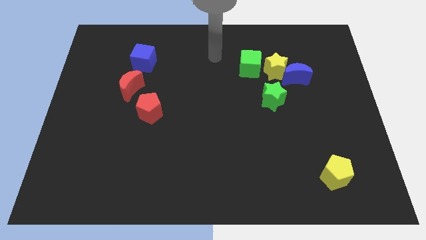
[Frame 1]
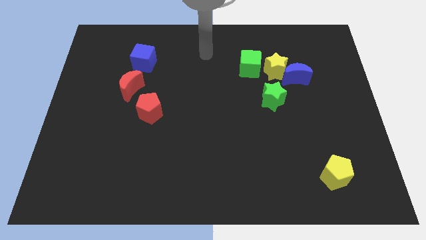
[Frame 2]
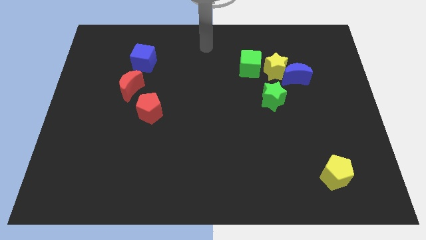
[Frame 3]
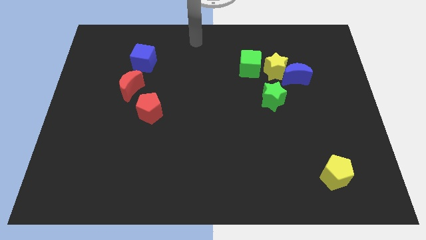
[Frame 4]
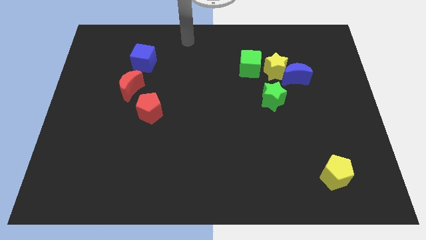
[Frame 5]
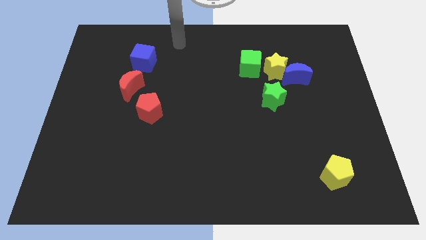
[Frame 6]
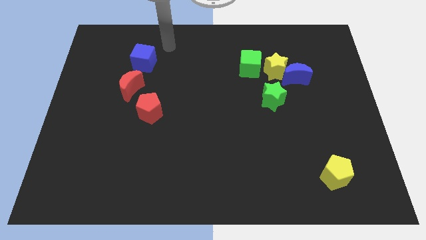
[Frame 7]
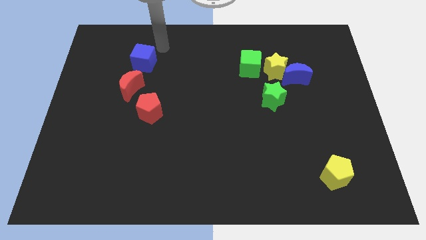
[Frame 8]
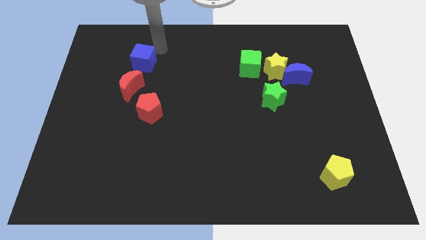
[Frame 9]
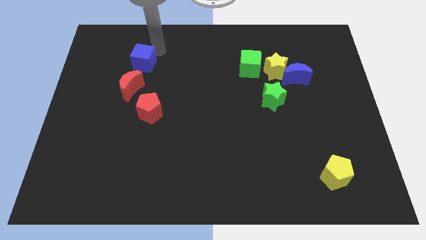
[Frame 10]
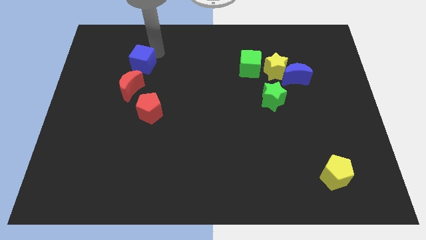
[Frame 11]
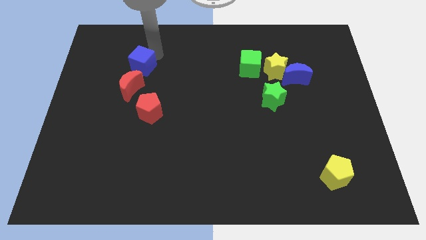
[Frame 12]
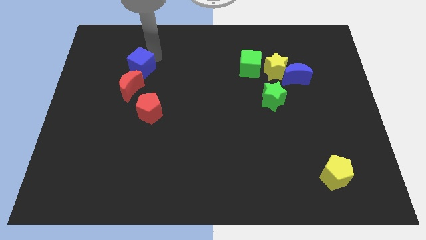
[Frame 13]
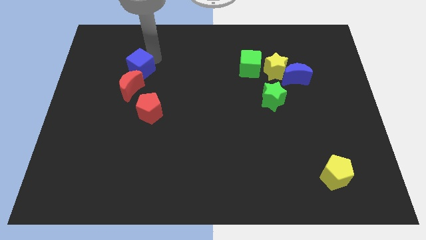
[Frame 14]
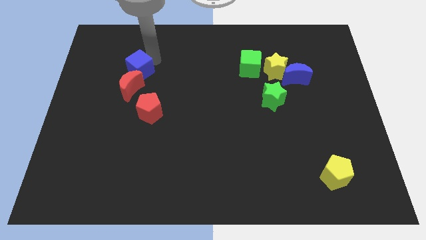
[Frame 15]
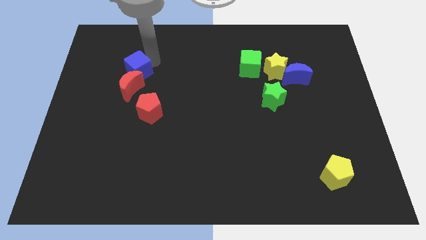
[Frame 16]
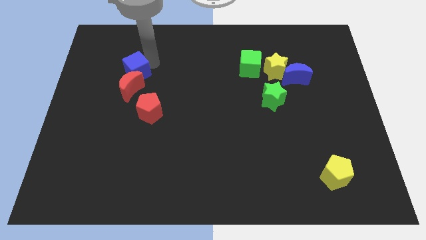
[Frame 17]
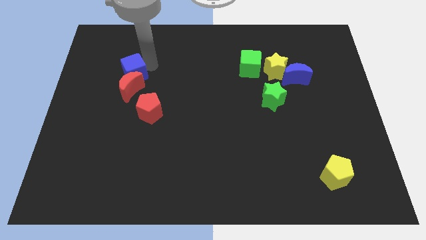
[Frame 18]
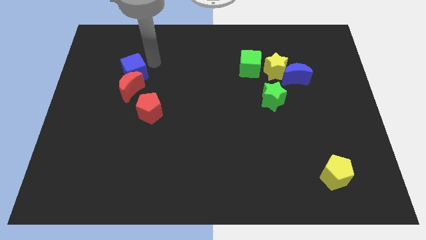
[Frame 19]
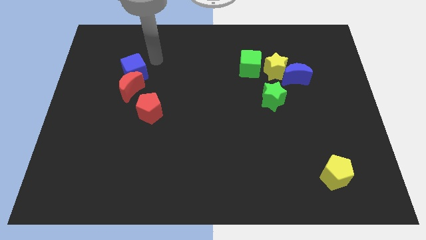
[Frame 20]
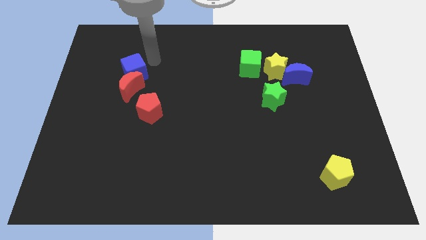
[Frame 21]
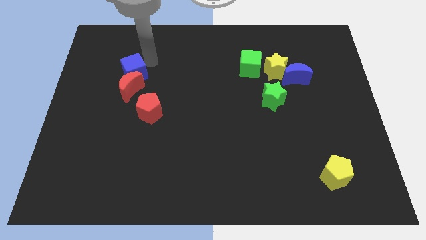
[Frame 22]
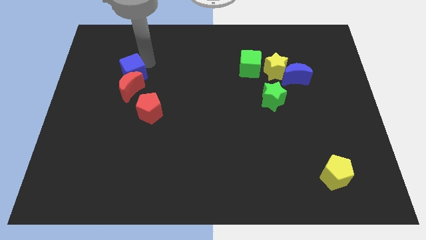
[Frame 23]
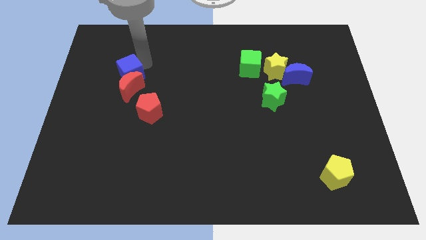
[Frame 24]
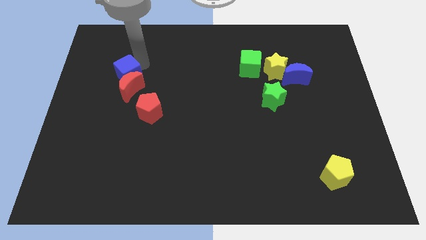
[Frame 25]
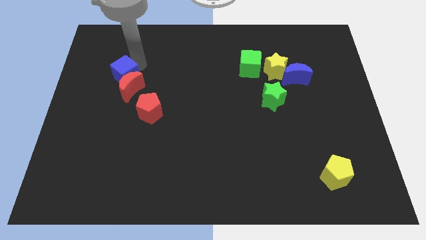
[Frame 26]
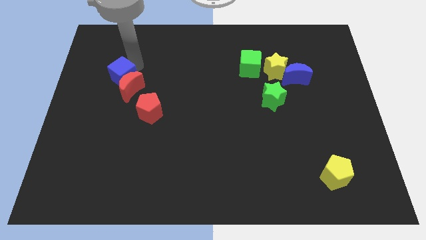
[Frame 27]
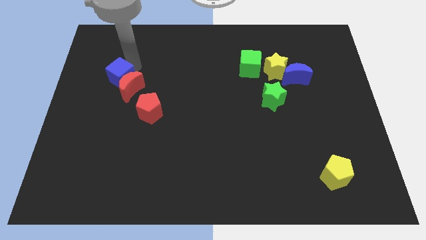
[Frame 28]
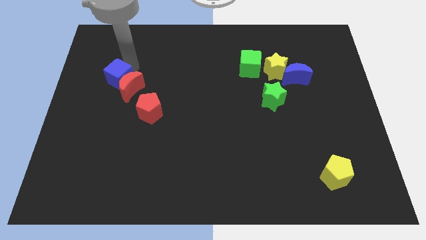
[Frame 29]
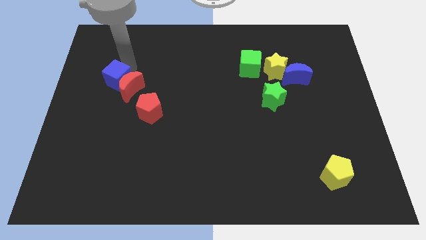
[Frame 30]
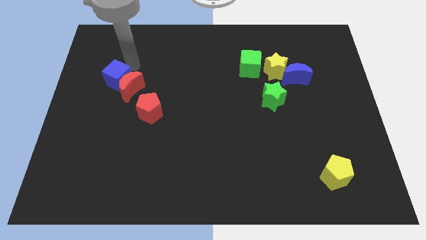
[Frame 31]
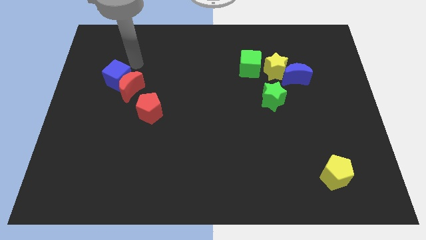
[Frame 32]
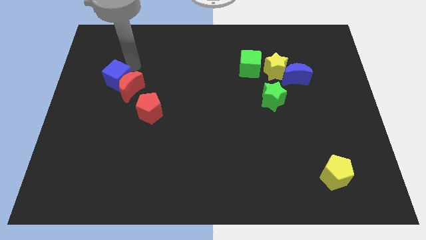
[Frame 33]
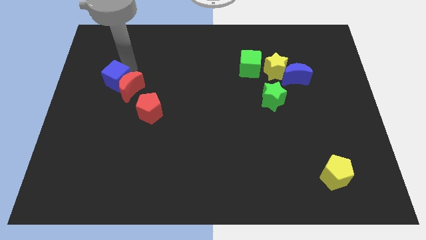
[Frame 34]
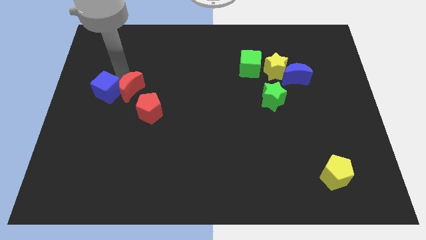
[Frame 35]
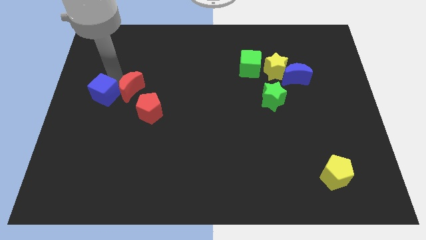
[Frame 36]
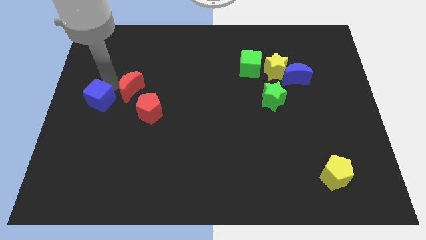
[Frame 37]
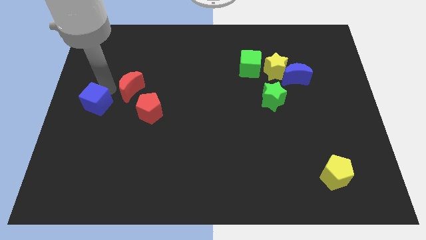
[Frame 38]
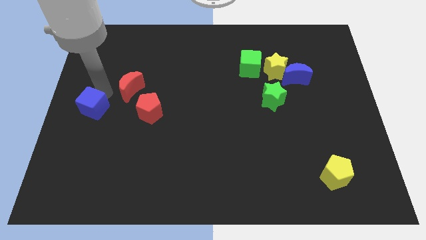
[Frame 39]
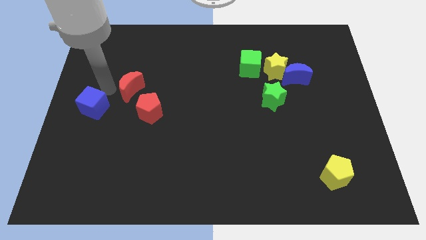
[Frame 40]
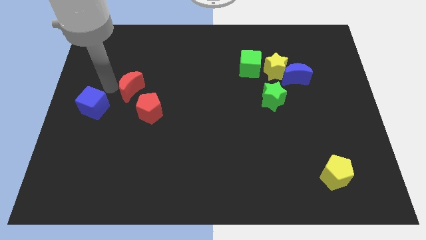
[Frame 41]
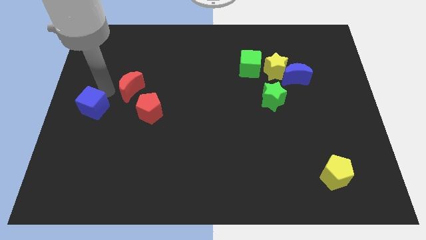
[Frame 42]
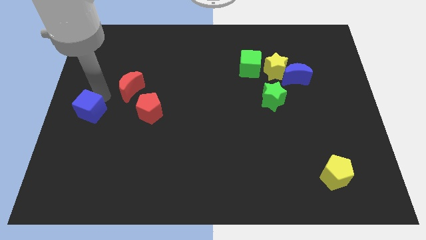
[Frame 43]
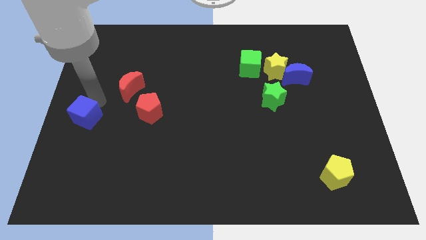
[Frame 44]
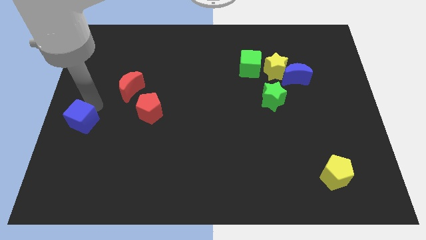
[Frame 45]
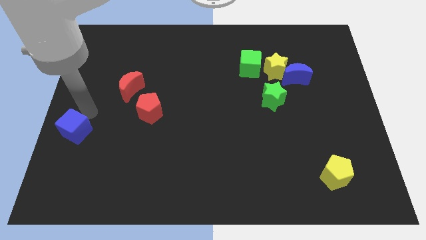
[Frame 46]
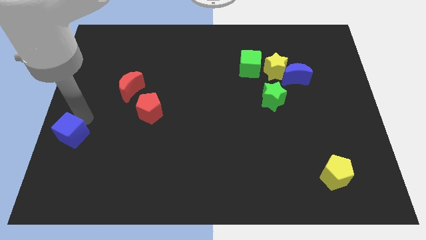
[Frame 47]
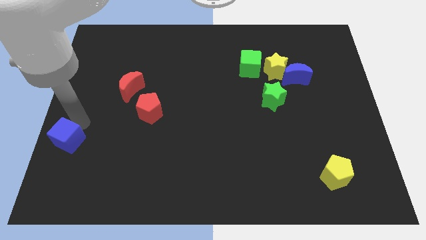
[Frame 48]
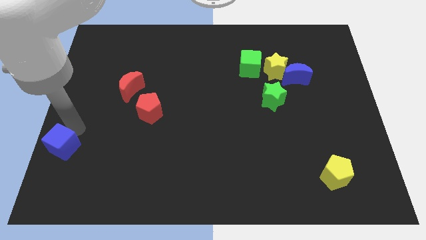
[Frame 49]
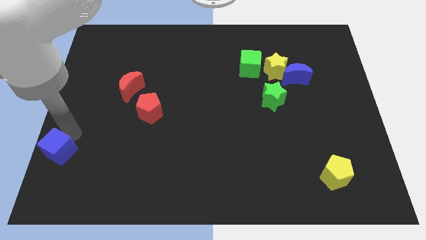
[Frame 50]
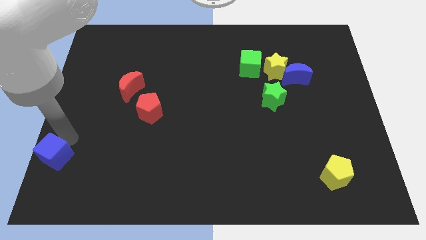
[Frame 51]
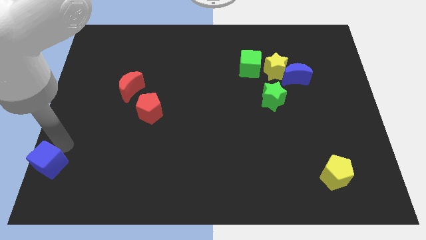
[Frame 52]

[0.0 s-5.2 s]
move the blue cube to the bottom left

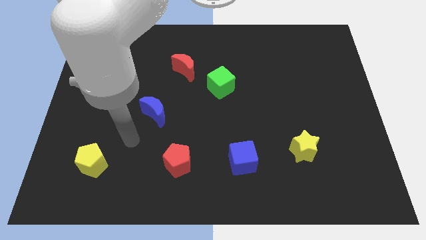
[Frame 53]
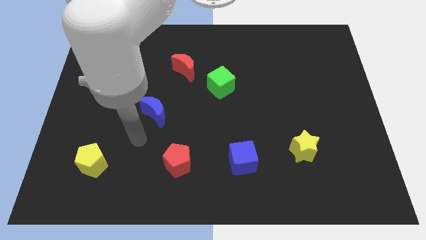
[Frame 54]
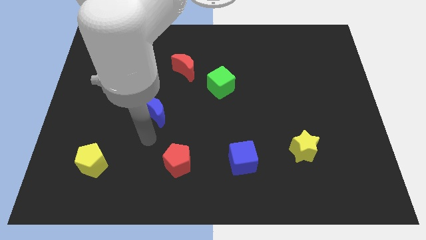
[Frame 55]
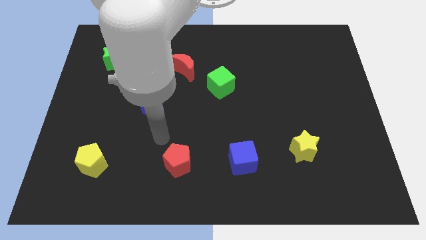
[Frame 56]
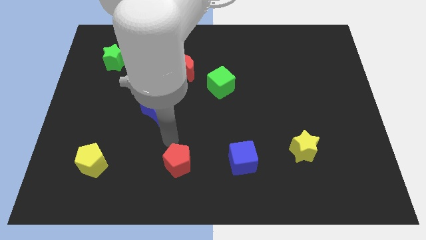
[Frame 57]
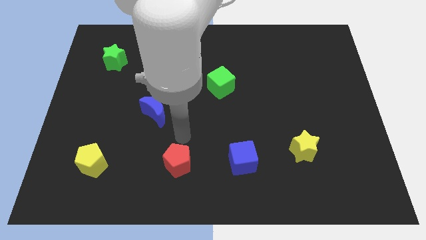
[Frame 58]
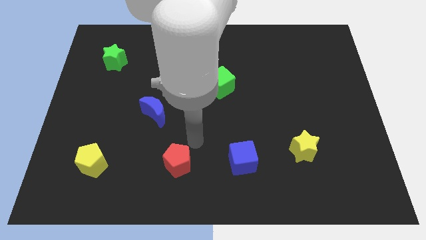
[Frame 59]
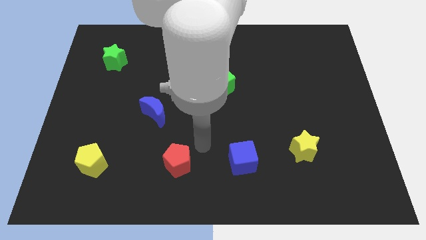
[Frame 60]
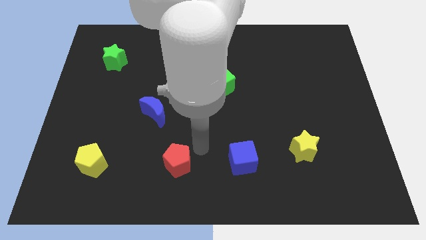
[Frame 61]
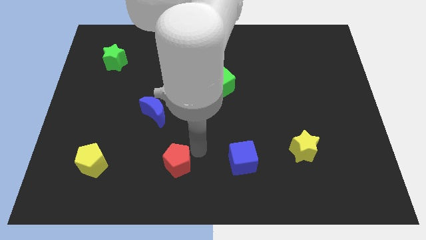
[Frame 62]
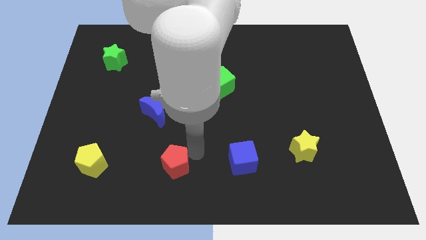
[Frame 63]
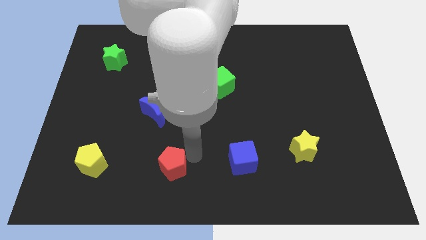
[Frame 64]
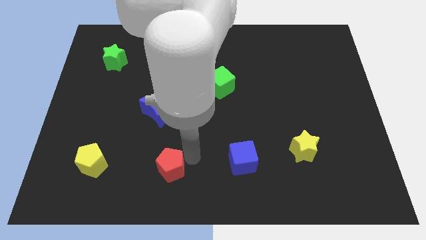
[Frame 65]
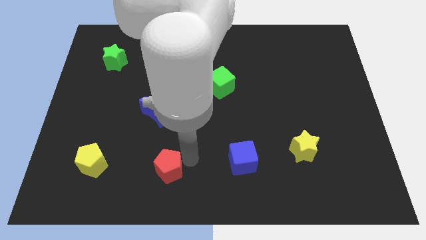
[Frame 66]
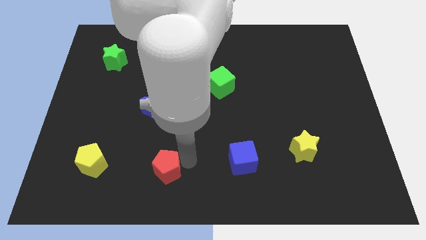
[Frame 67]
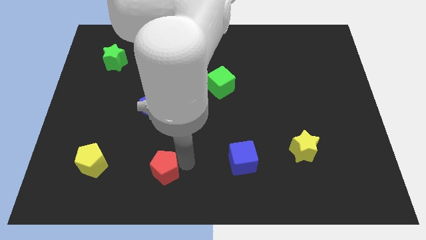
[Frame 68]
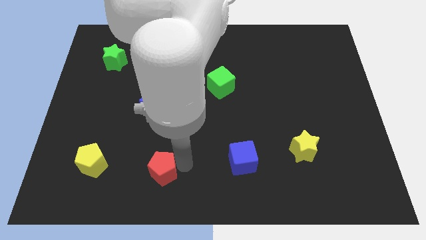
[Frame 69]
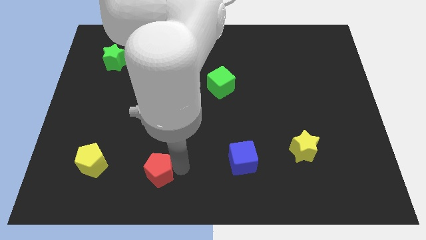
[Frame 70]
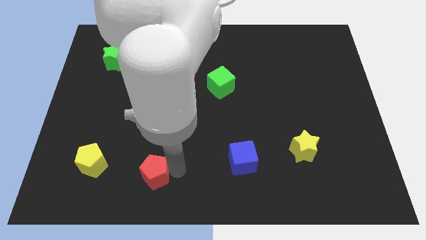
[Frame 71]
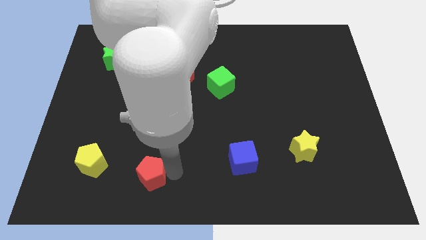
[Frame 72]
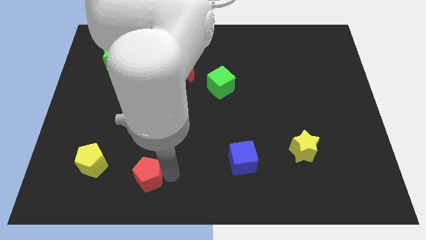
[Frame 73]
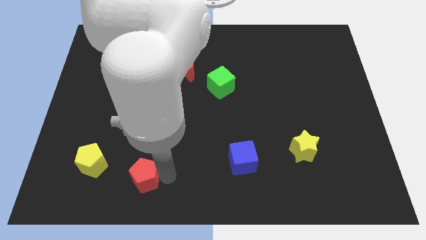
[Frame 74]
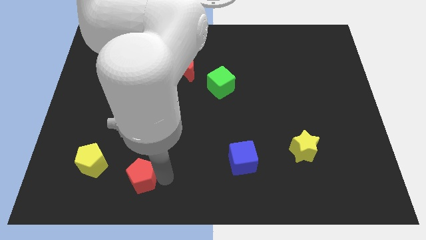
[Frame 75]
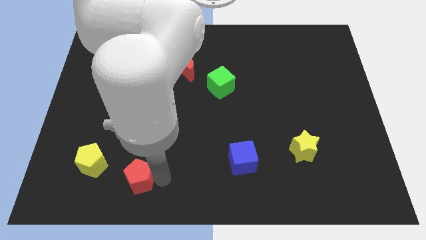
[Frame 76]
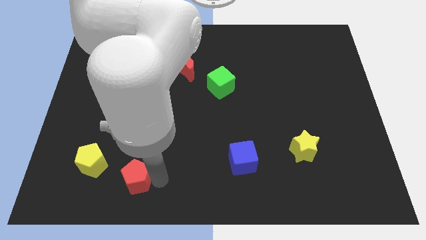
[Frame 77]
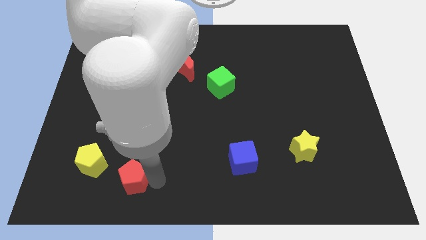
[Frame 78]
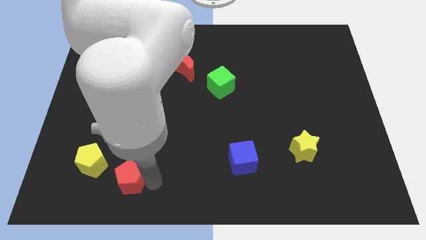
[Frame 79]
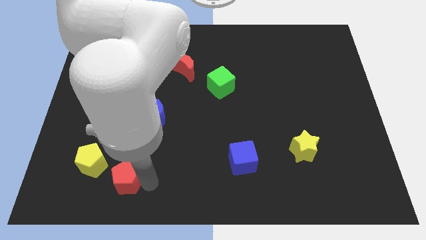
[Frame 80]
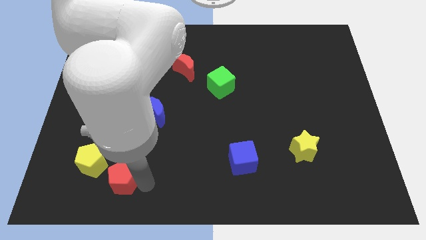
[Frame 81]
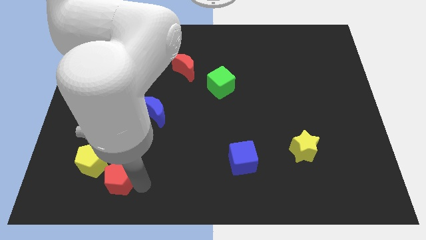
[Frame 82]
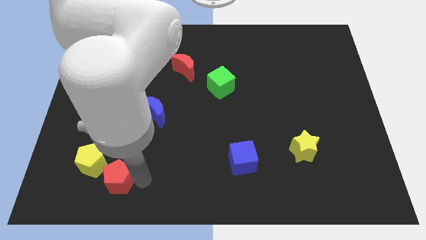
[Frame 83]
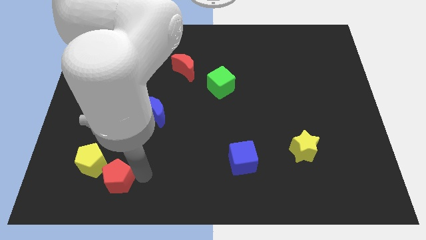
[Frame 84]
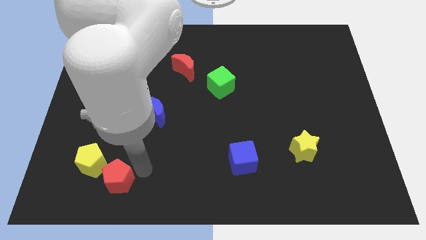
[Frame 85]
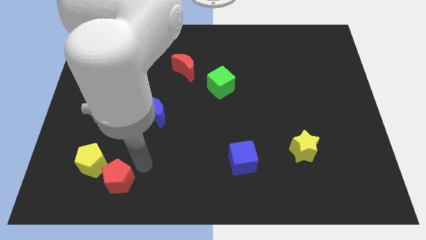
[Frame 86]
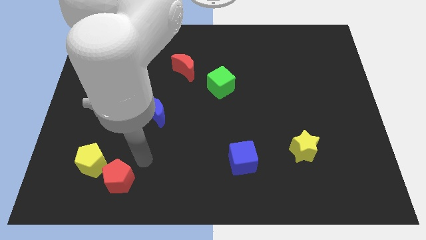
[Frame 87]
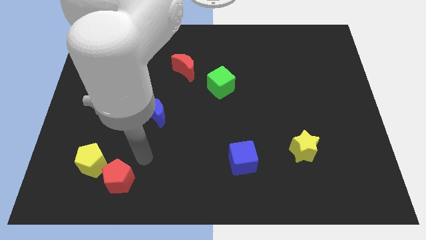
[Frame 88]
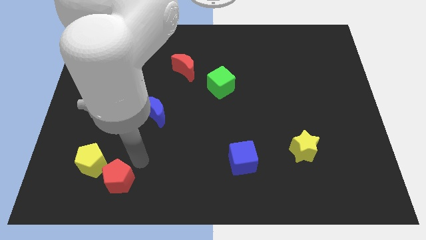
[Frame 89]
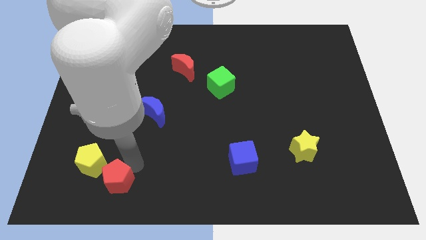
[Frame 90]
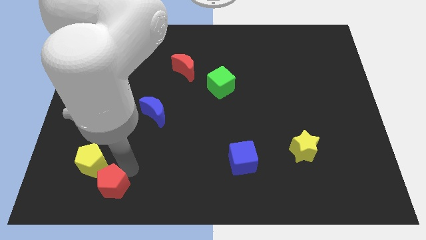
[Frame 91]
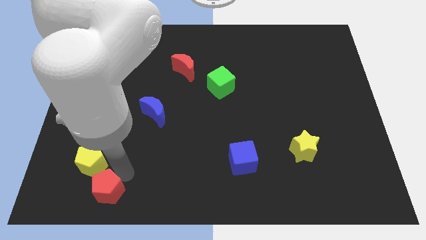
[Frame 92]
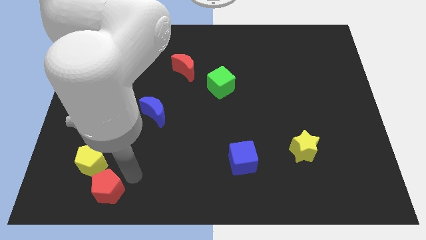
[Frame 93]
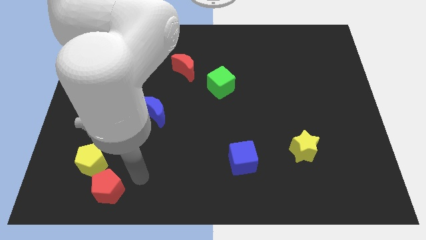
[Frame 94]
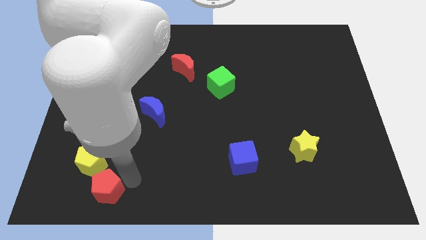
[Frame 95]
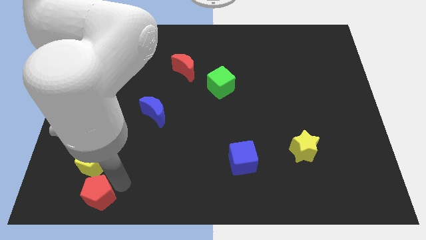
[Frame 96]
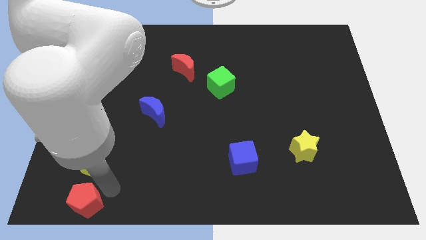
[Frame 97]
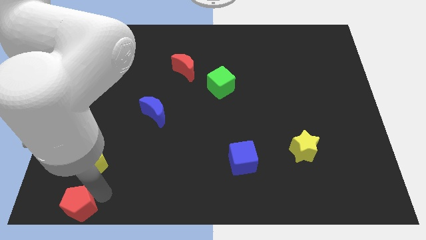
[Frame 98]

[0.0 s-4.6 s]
move the red pentagon to the lower left corner
